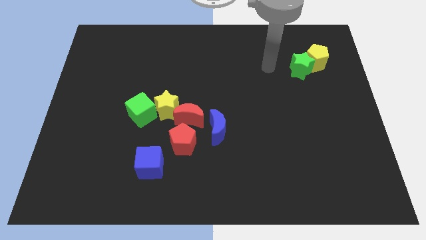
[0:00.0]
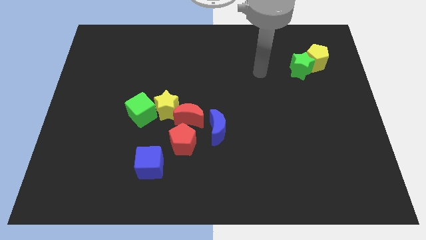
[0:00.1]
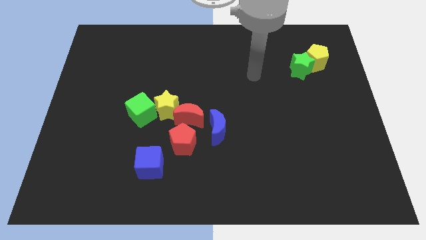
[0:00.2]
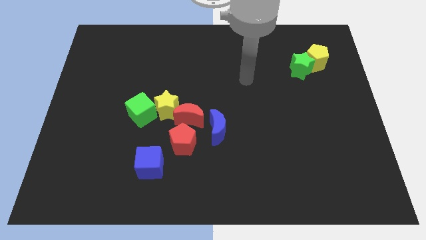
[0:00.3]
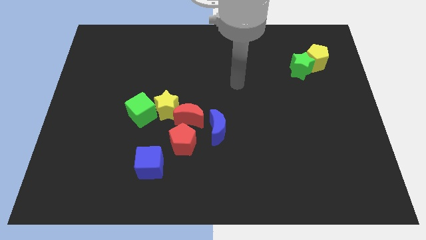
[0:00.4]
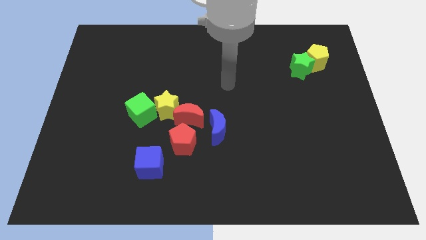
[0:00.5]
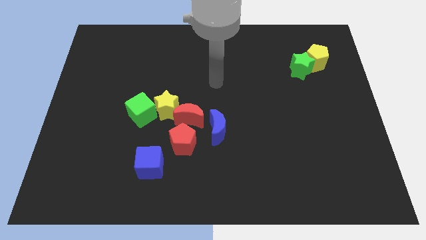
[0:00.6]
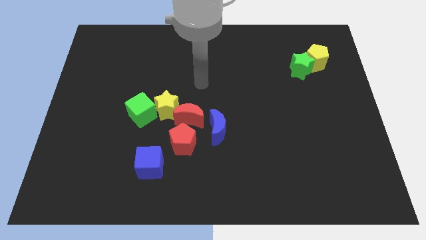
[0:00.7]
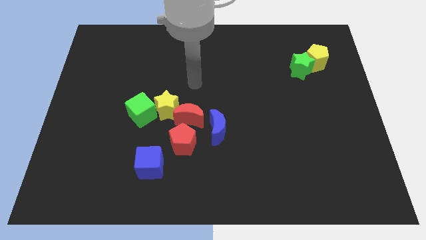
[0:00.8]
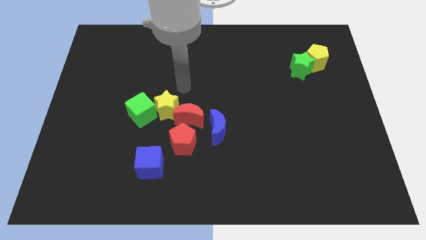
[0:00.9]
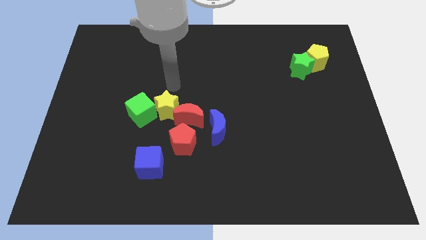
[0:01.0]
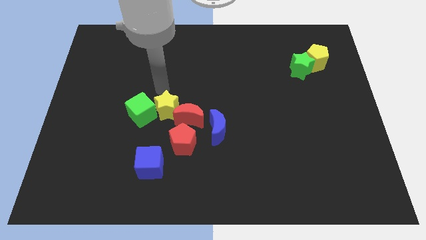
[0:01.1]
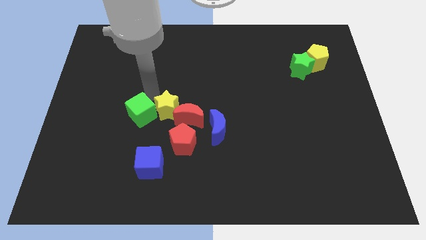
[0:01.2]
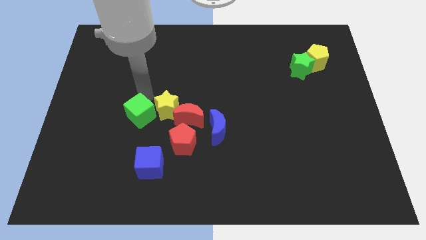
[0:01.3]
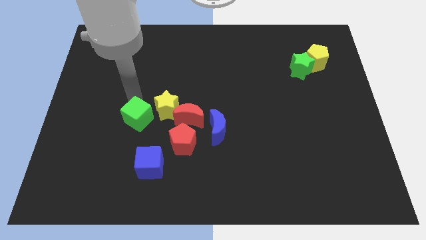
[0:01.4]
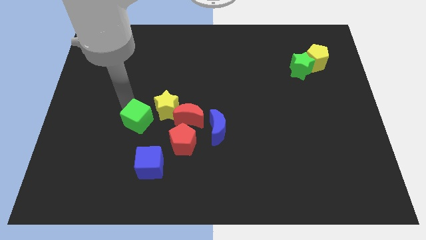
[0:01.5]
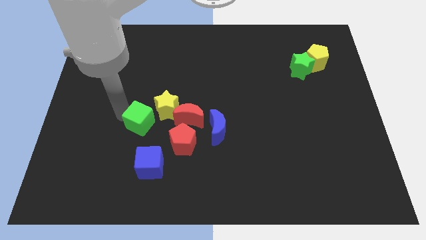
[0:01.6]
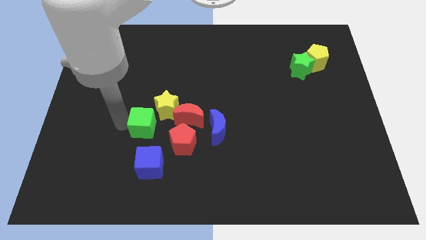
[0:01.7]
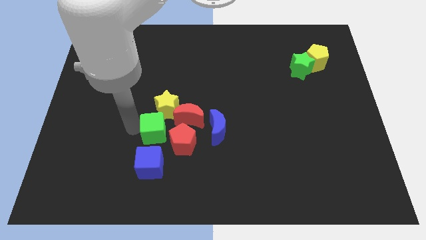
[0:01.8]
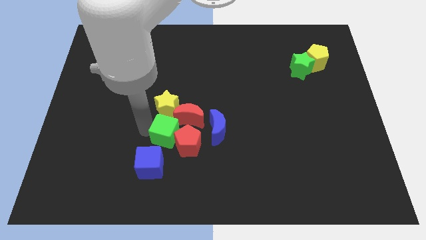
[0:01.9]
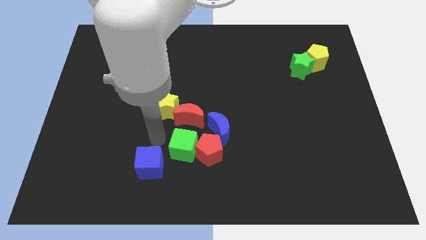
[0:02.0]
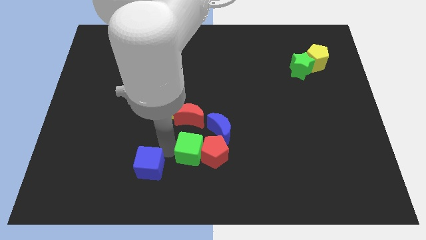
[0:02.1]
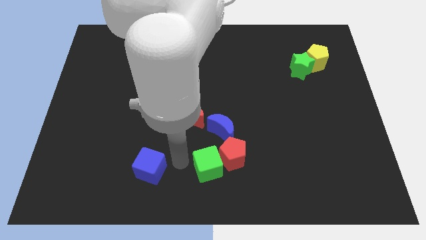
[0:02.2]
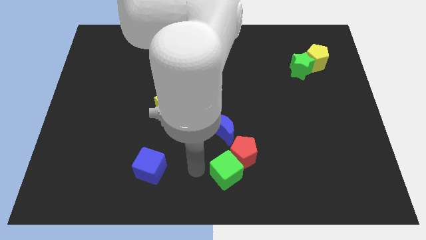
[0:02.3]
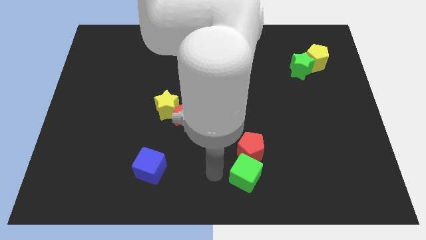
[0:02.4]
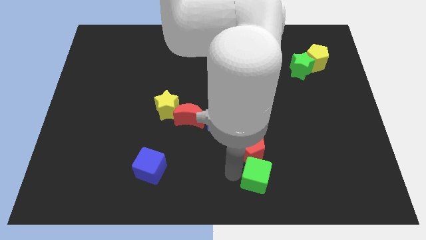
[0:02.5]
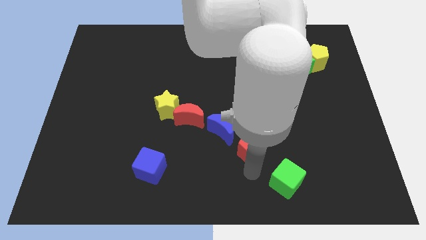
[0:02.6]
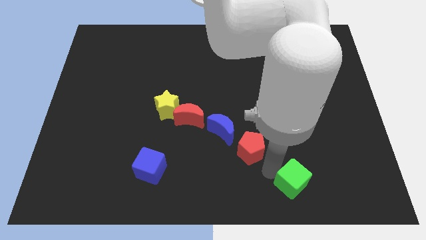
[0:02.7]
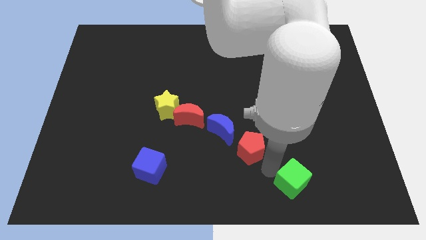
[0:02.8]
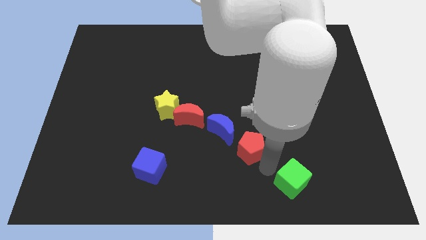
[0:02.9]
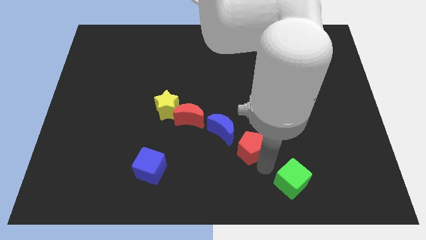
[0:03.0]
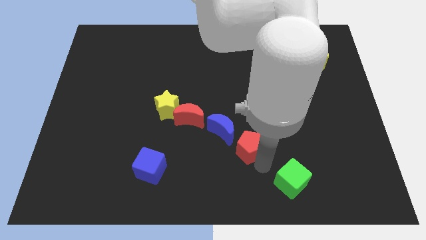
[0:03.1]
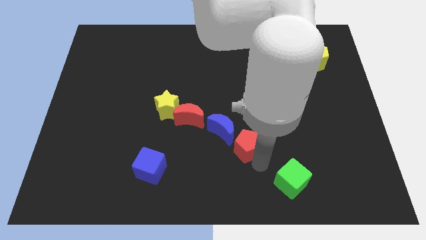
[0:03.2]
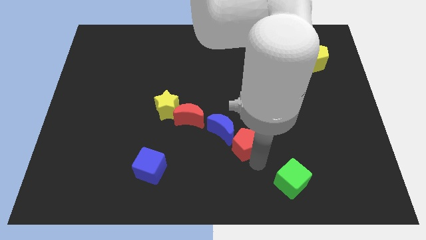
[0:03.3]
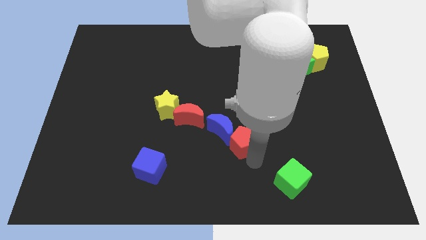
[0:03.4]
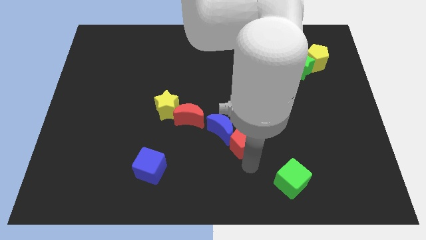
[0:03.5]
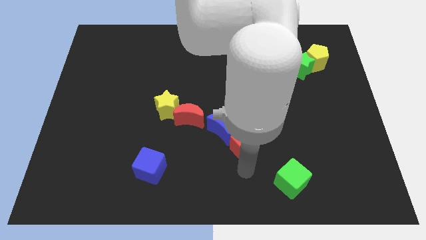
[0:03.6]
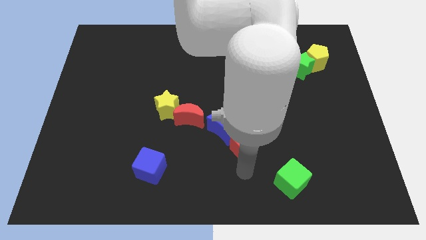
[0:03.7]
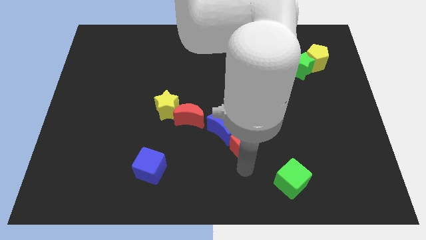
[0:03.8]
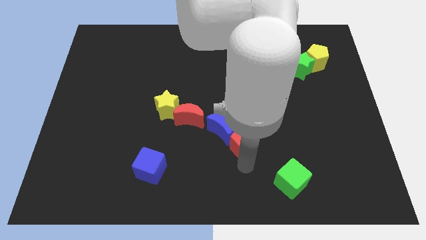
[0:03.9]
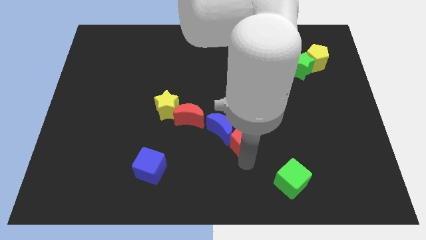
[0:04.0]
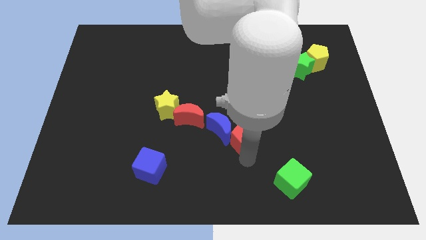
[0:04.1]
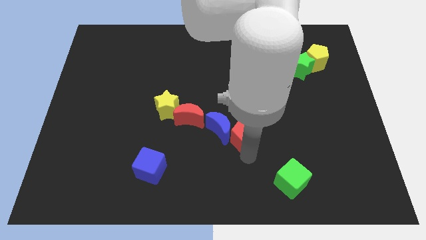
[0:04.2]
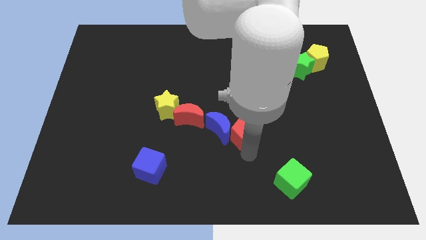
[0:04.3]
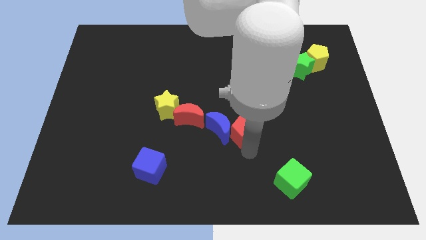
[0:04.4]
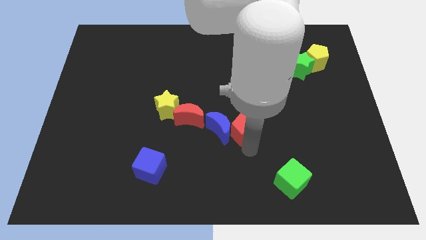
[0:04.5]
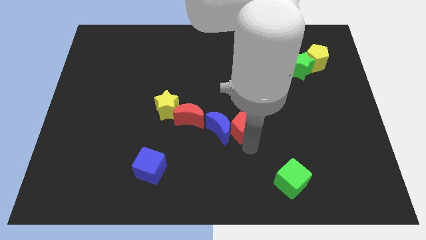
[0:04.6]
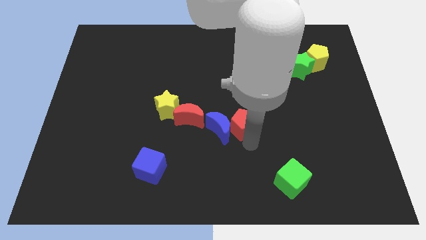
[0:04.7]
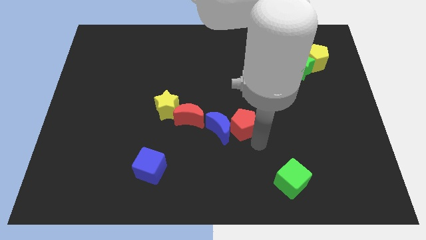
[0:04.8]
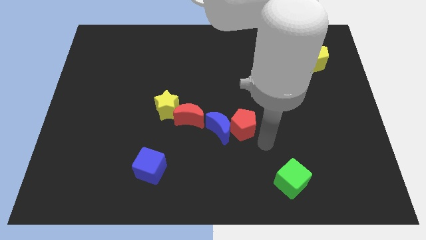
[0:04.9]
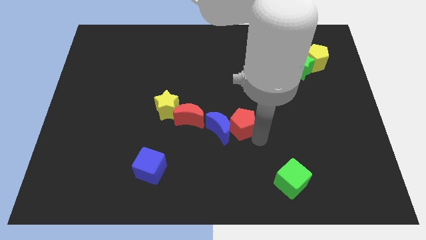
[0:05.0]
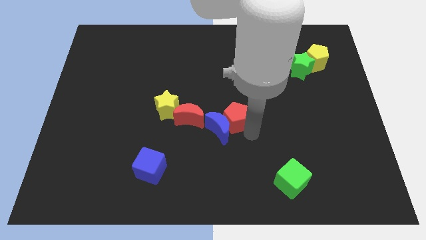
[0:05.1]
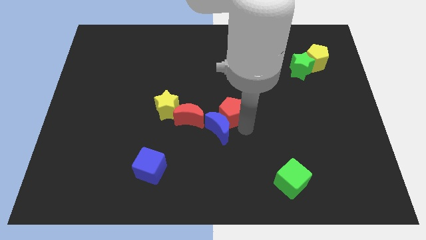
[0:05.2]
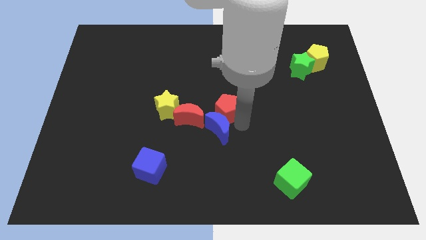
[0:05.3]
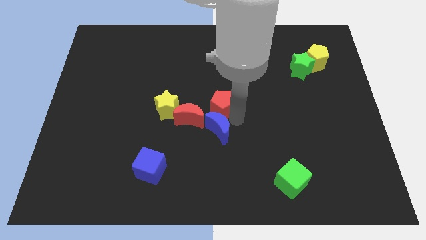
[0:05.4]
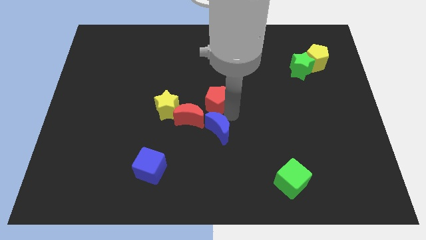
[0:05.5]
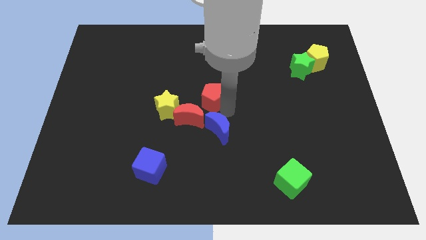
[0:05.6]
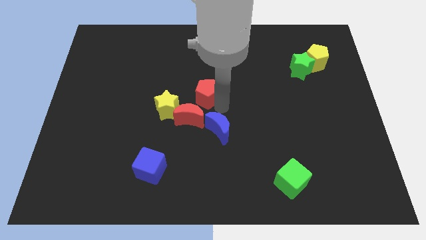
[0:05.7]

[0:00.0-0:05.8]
move the red pentagon above the red moon

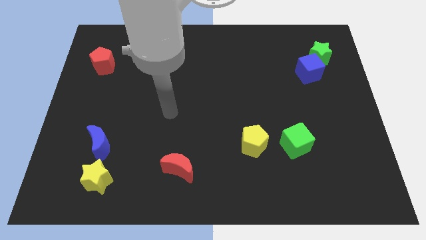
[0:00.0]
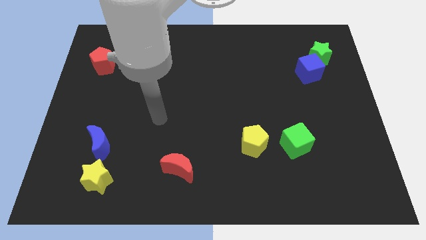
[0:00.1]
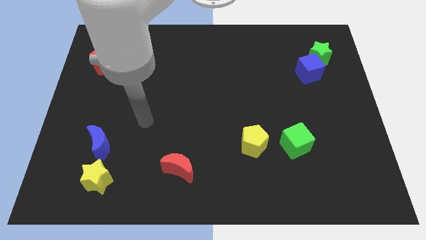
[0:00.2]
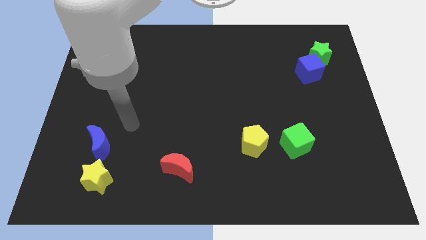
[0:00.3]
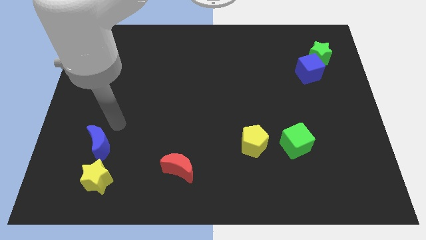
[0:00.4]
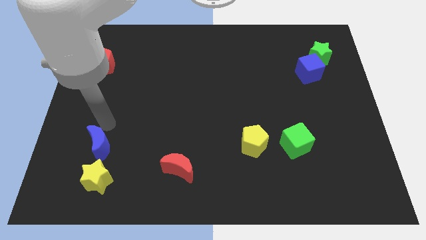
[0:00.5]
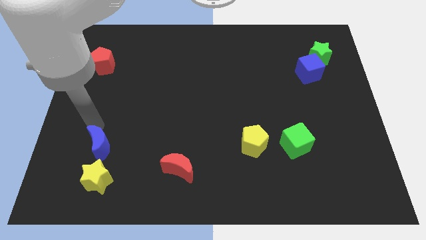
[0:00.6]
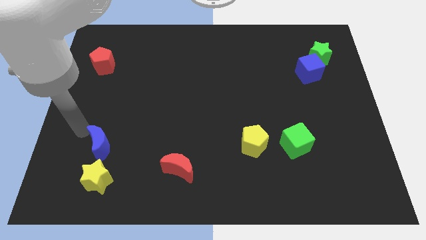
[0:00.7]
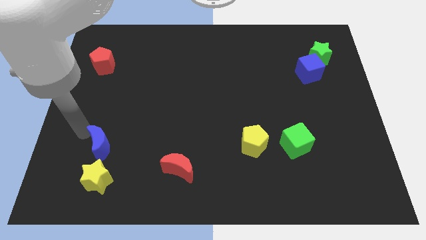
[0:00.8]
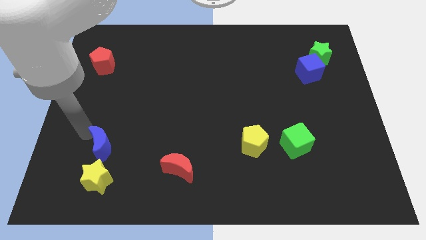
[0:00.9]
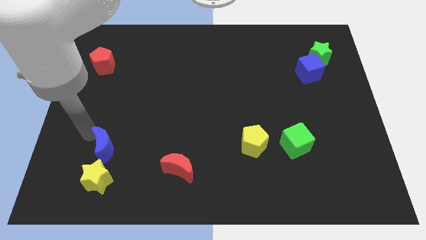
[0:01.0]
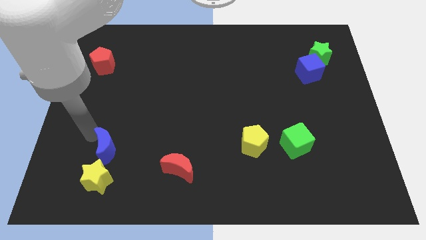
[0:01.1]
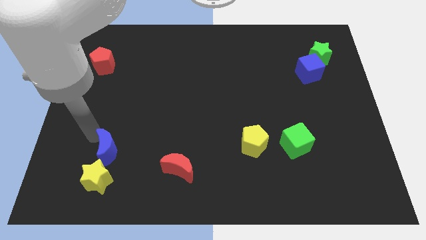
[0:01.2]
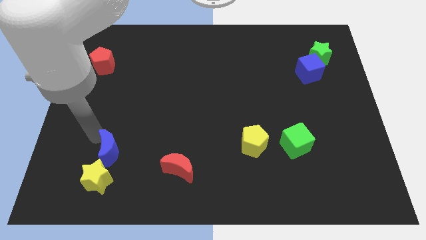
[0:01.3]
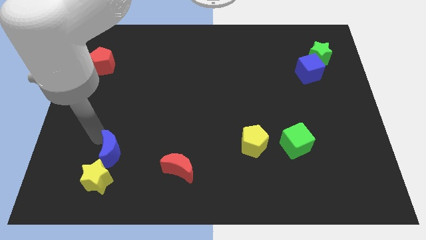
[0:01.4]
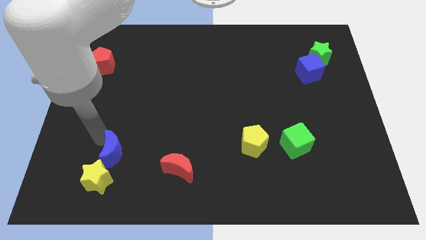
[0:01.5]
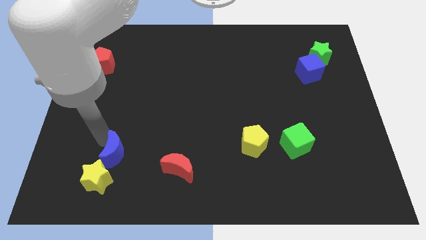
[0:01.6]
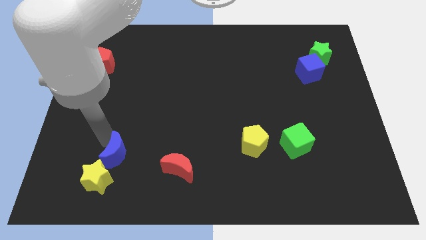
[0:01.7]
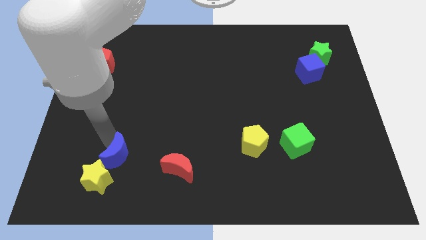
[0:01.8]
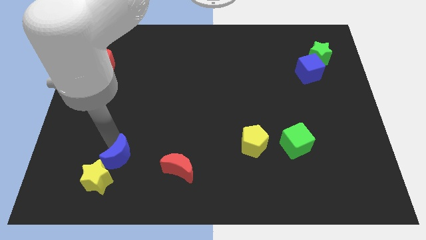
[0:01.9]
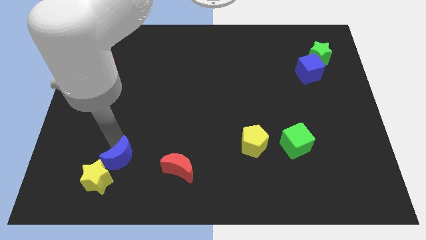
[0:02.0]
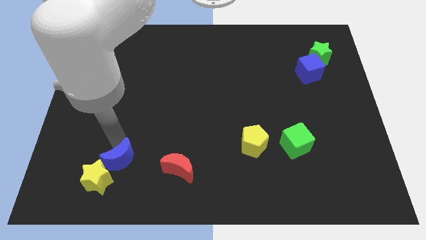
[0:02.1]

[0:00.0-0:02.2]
push the blue moon to the right of the yellow star
